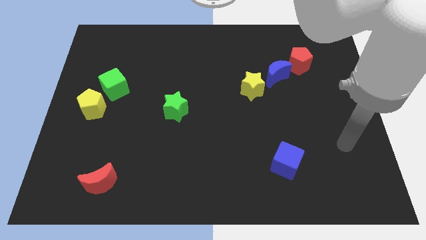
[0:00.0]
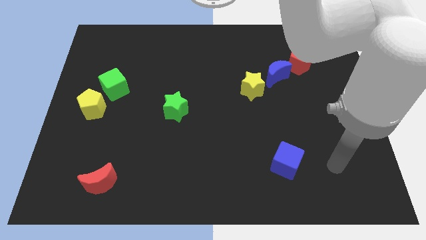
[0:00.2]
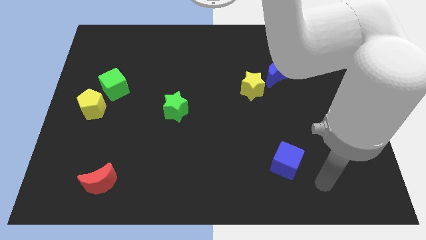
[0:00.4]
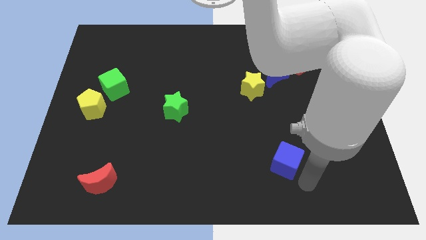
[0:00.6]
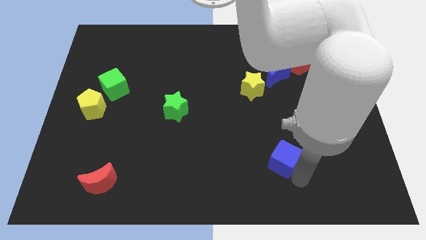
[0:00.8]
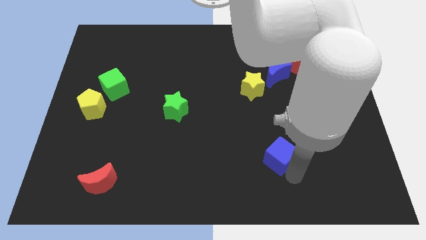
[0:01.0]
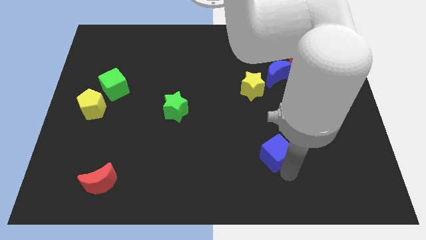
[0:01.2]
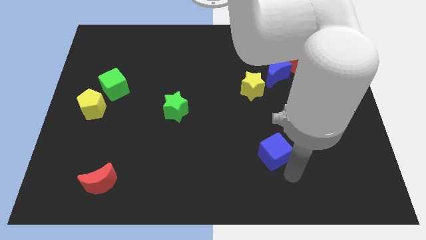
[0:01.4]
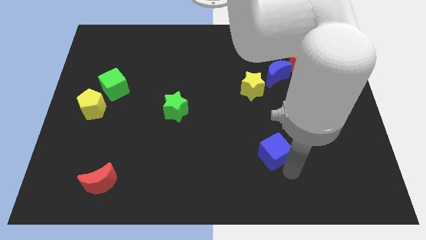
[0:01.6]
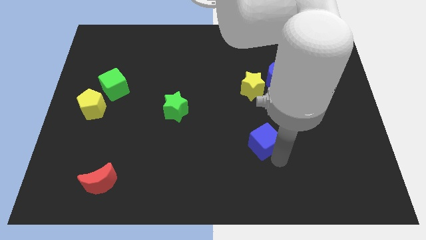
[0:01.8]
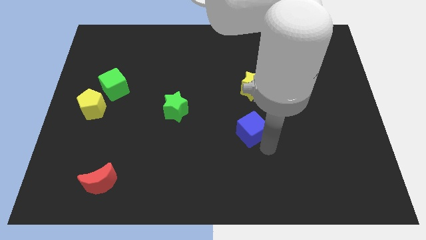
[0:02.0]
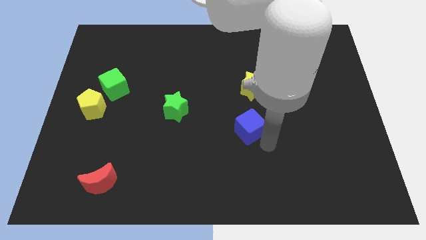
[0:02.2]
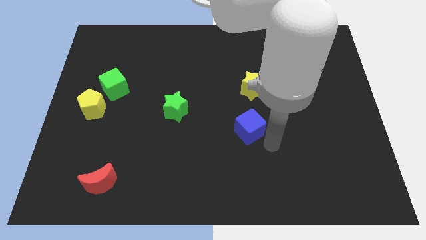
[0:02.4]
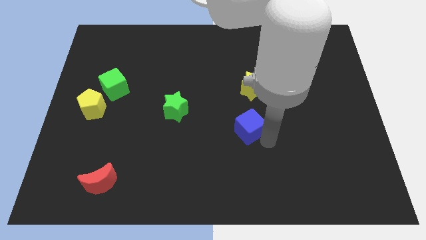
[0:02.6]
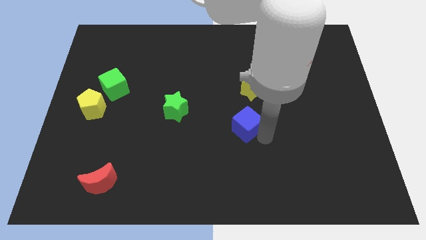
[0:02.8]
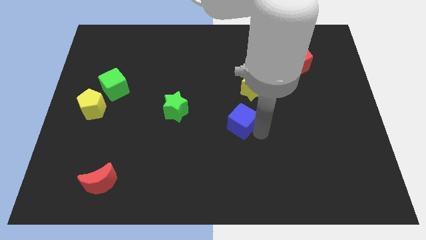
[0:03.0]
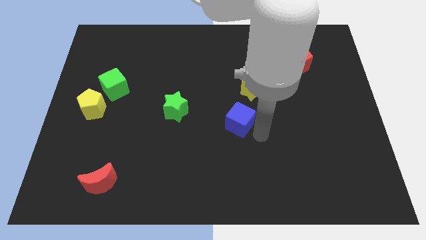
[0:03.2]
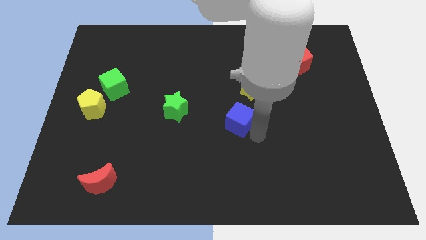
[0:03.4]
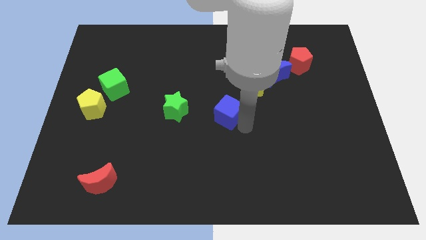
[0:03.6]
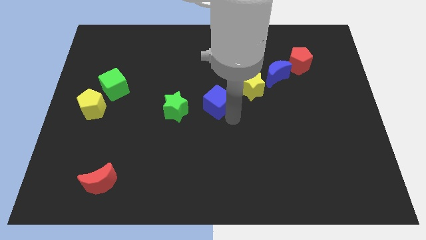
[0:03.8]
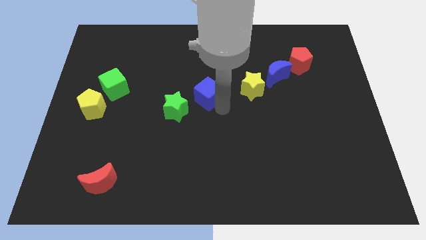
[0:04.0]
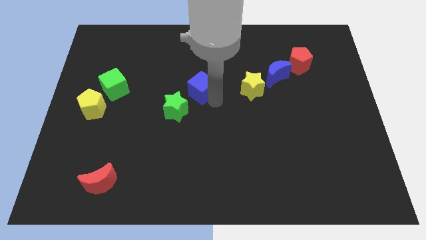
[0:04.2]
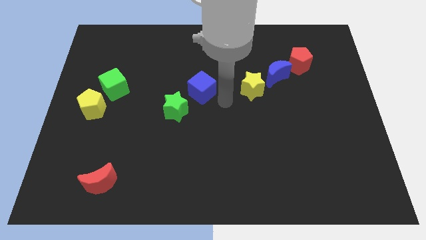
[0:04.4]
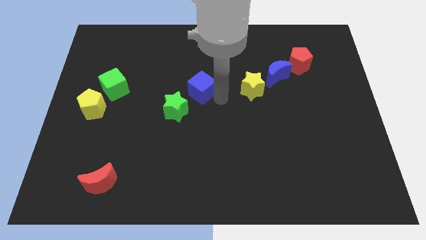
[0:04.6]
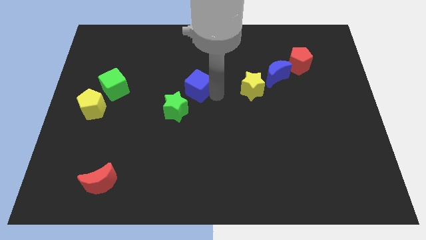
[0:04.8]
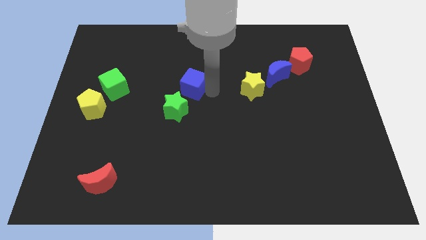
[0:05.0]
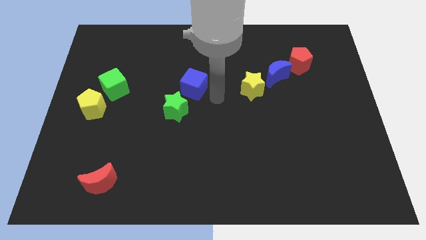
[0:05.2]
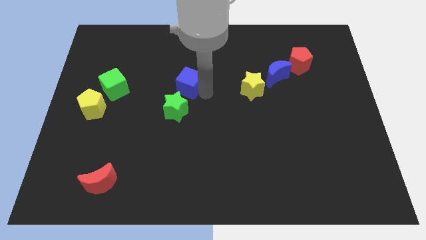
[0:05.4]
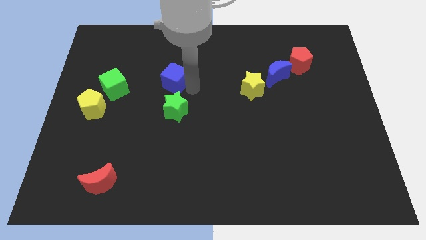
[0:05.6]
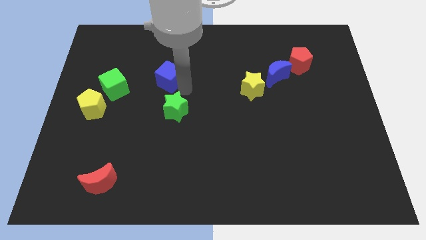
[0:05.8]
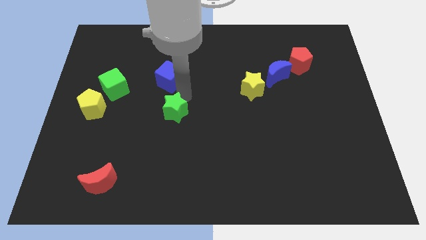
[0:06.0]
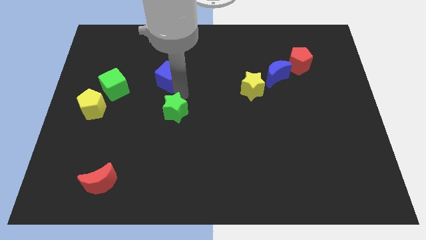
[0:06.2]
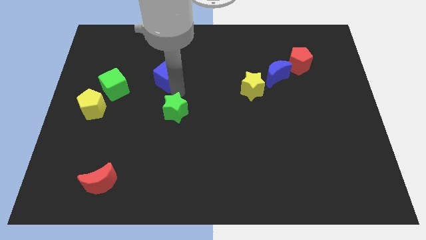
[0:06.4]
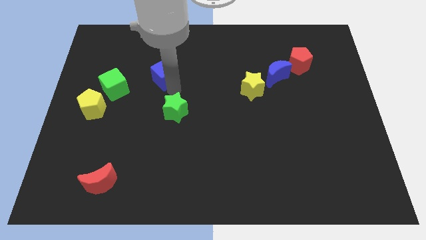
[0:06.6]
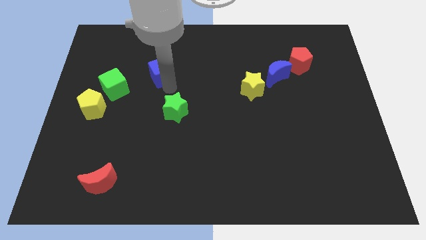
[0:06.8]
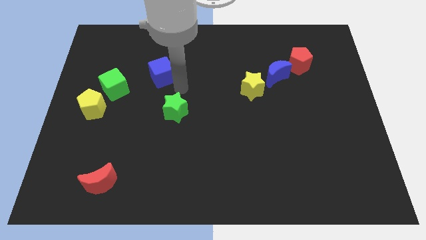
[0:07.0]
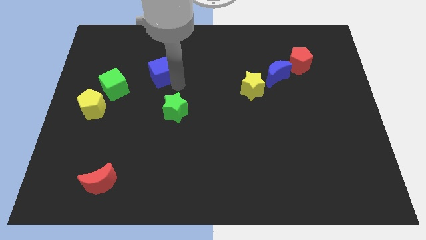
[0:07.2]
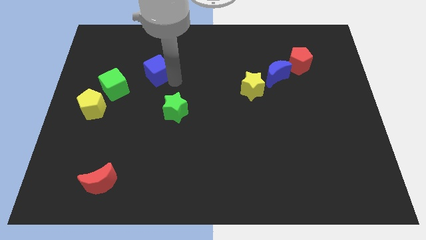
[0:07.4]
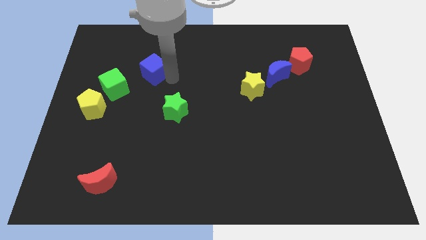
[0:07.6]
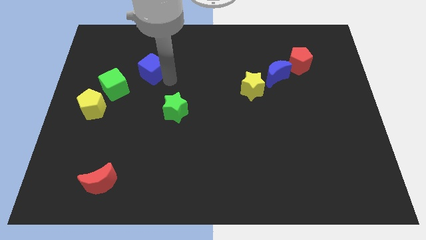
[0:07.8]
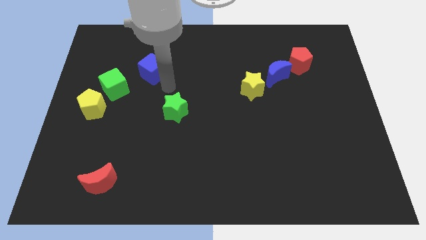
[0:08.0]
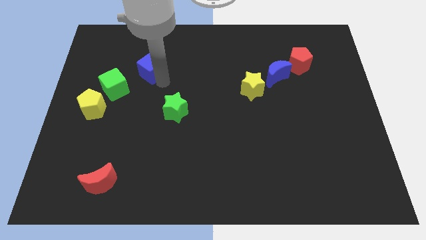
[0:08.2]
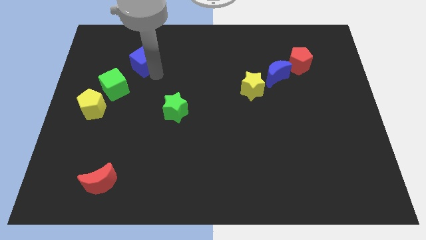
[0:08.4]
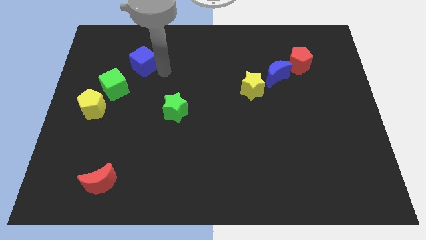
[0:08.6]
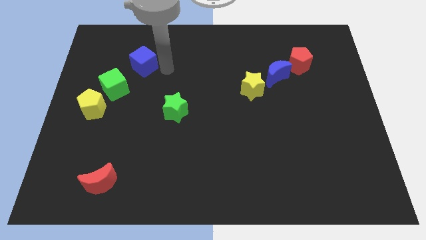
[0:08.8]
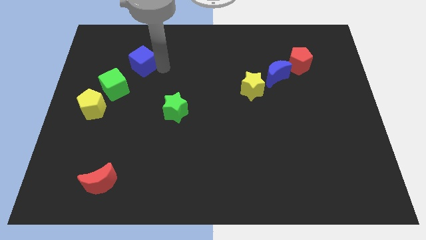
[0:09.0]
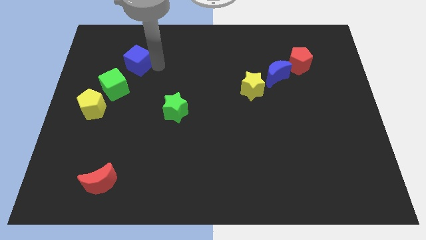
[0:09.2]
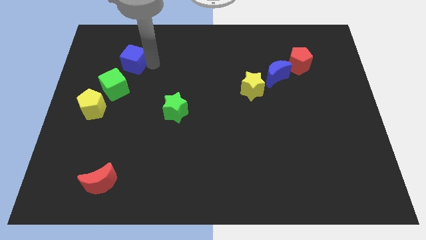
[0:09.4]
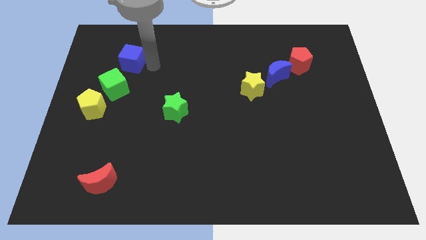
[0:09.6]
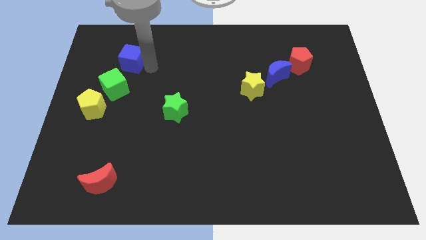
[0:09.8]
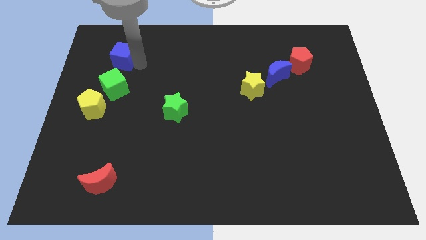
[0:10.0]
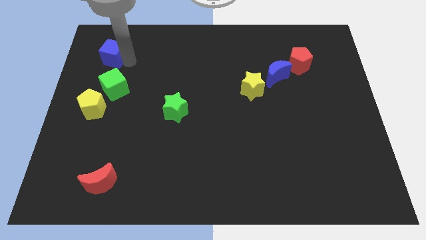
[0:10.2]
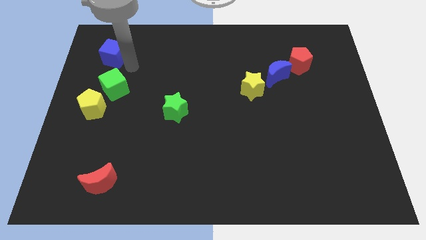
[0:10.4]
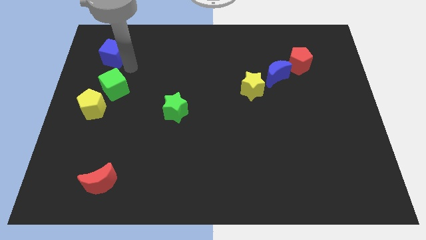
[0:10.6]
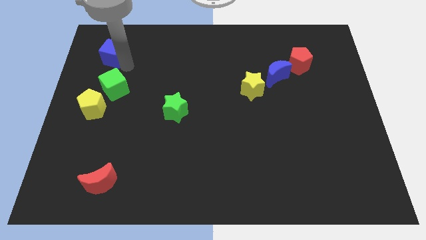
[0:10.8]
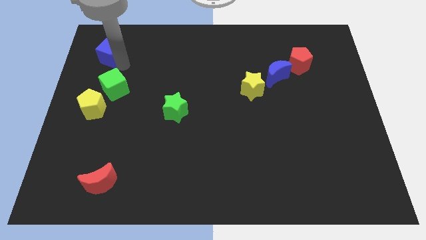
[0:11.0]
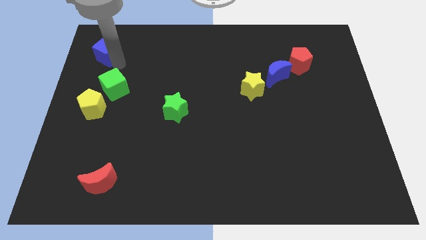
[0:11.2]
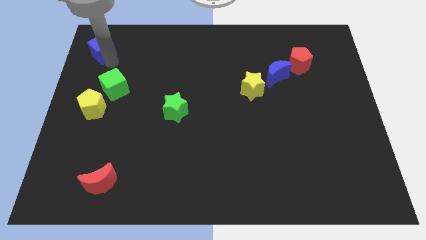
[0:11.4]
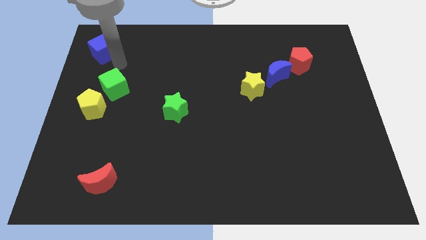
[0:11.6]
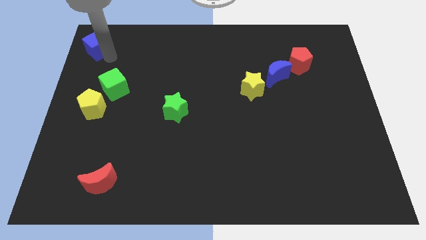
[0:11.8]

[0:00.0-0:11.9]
move the blue cube to the top left corner
